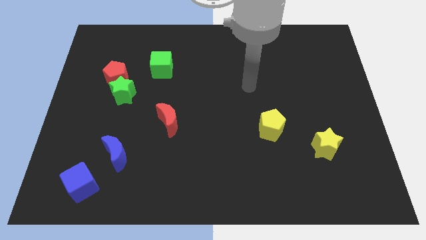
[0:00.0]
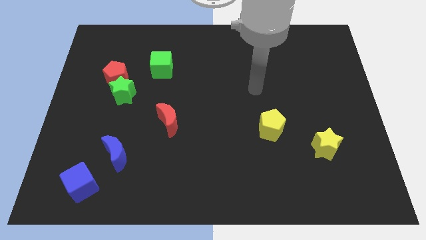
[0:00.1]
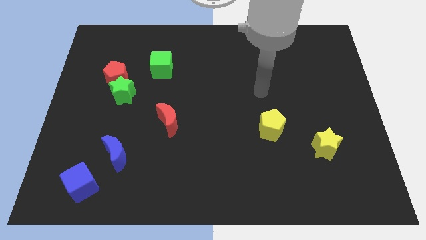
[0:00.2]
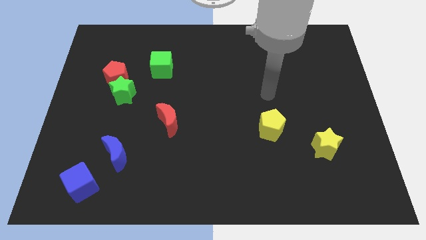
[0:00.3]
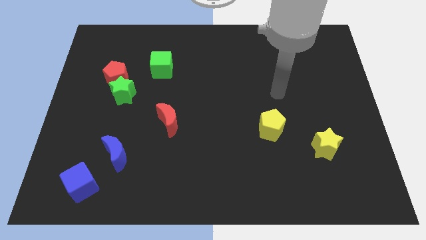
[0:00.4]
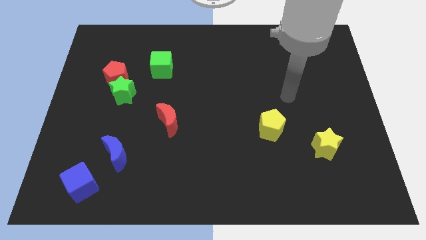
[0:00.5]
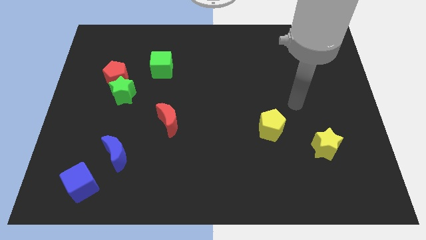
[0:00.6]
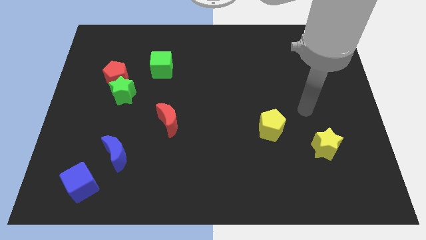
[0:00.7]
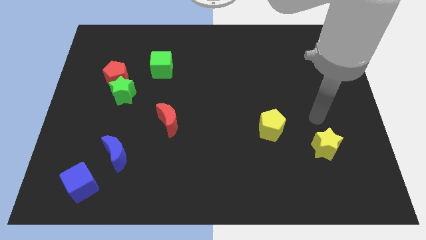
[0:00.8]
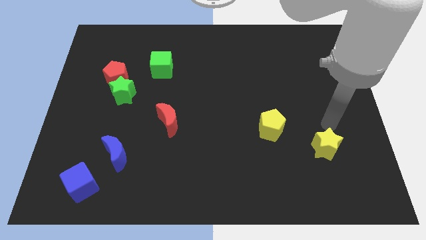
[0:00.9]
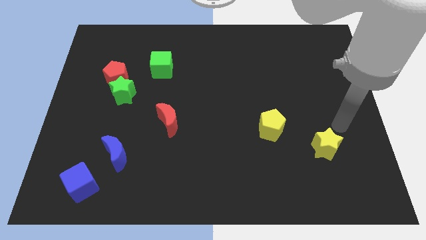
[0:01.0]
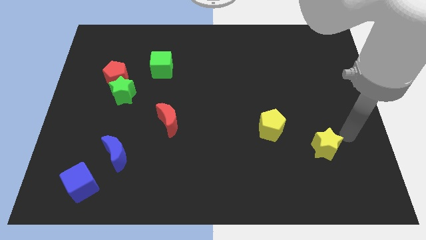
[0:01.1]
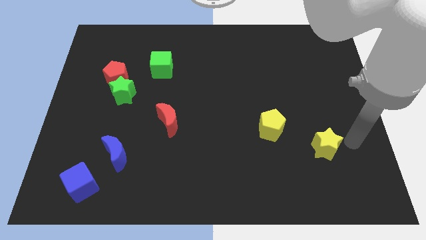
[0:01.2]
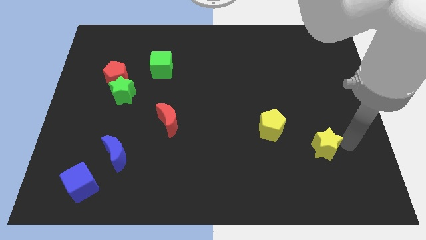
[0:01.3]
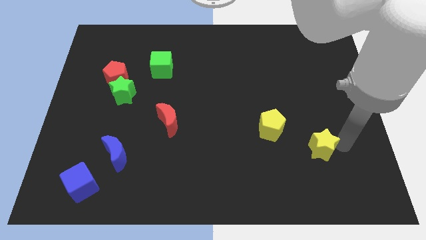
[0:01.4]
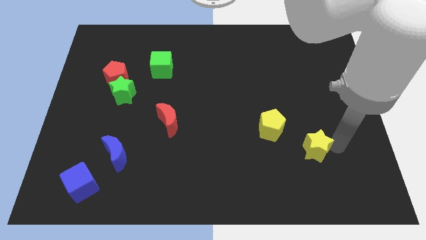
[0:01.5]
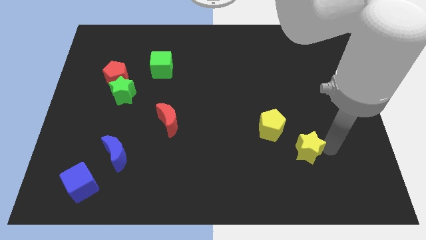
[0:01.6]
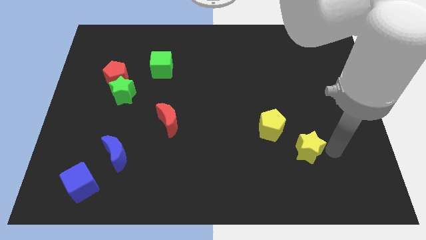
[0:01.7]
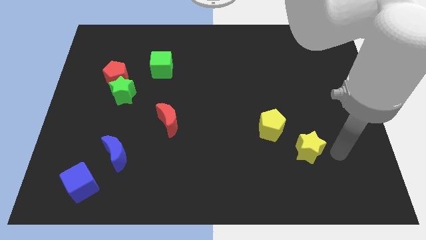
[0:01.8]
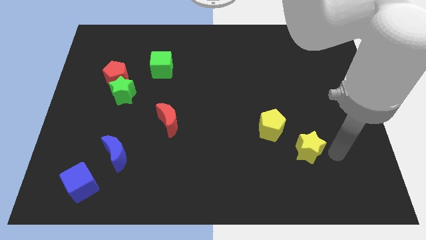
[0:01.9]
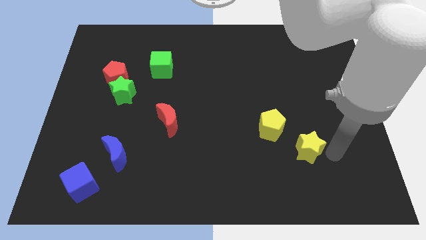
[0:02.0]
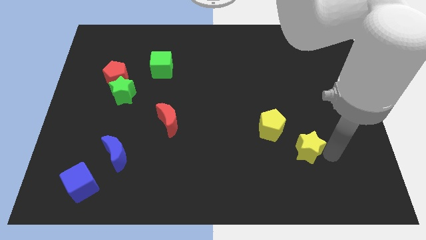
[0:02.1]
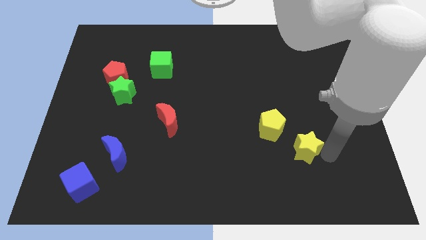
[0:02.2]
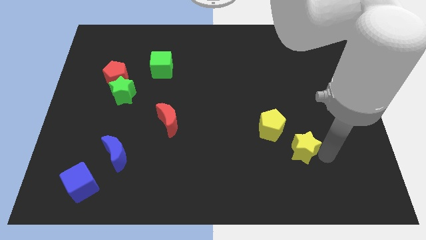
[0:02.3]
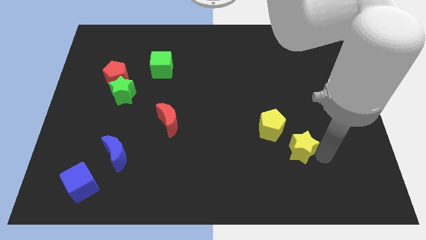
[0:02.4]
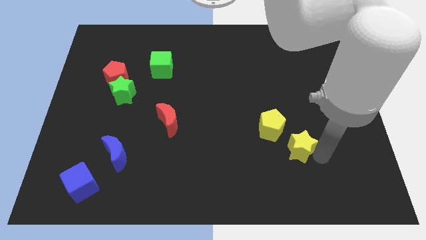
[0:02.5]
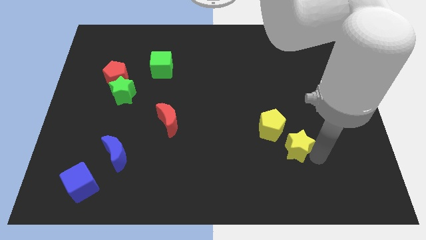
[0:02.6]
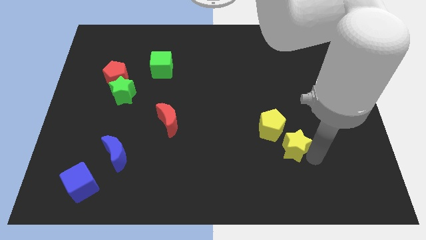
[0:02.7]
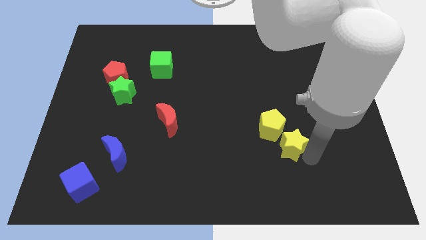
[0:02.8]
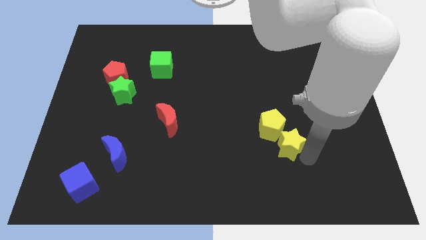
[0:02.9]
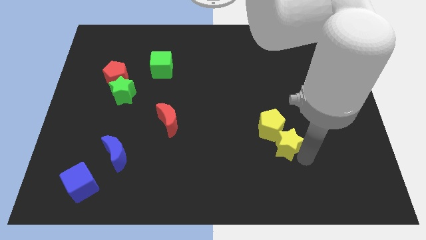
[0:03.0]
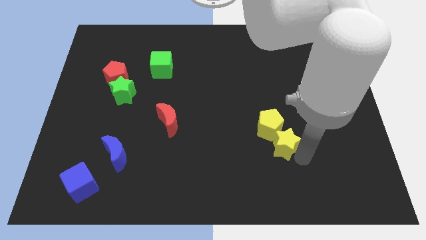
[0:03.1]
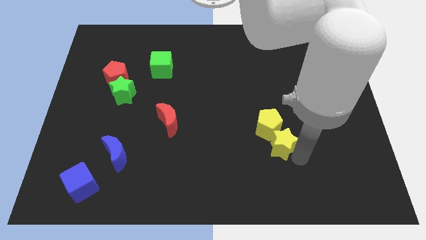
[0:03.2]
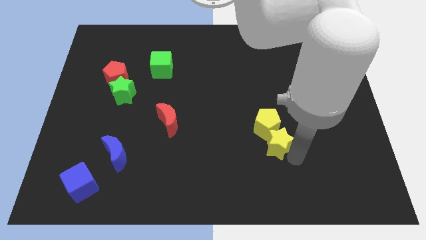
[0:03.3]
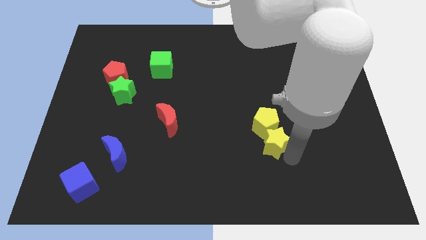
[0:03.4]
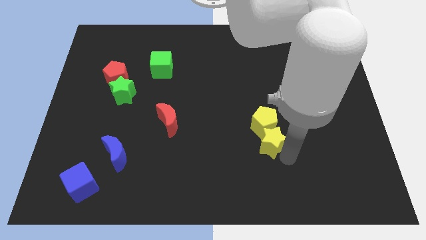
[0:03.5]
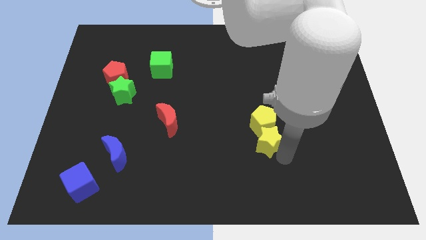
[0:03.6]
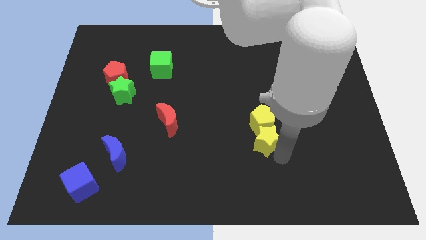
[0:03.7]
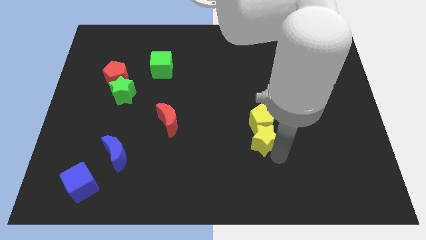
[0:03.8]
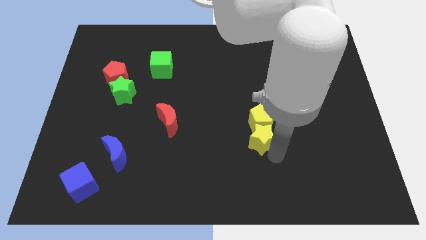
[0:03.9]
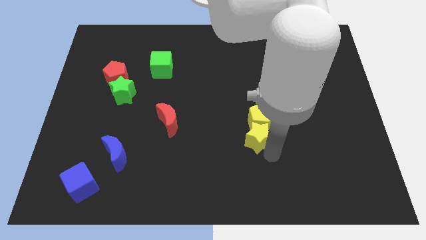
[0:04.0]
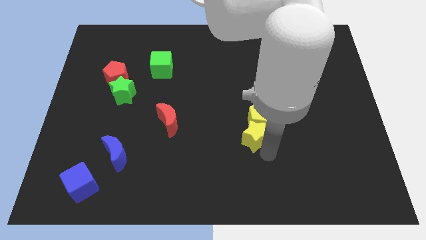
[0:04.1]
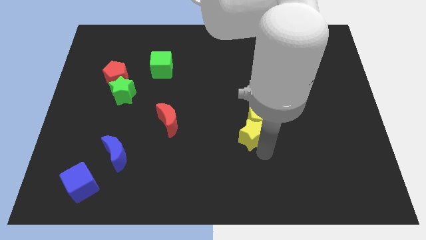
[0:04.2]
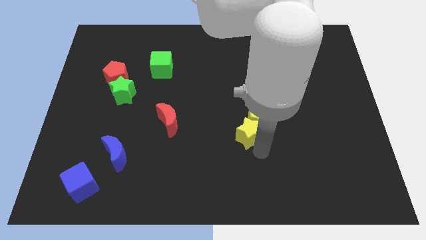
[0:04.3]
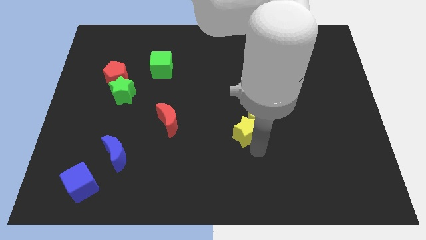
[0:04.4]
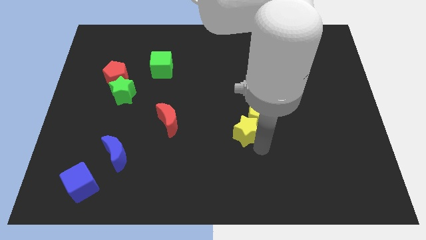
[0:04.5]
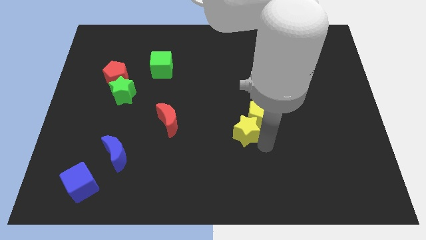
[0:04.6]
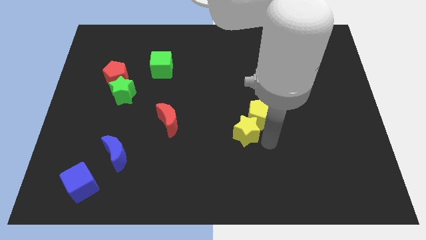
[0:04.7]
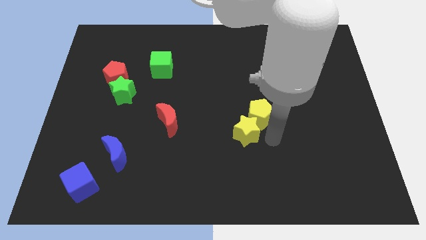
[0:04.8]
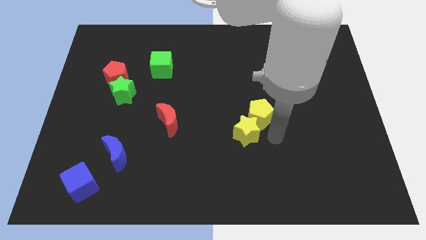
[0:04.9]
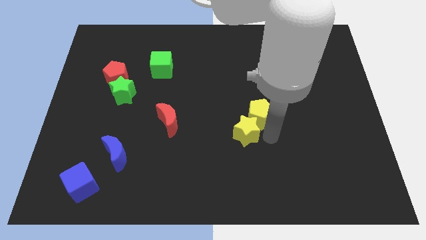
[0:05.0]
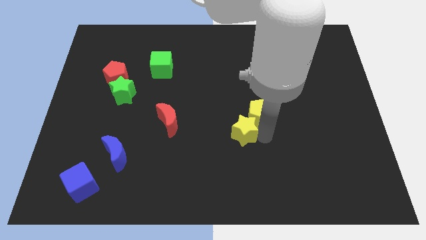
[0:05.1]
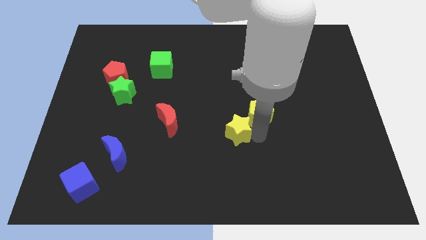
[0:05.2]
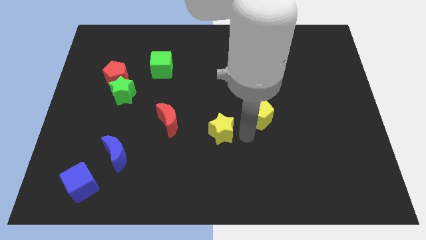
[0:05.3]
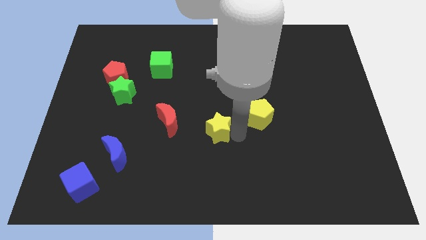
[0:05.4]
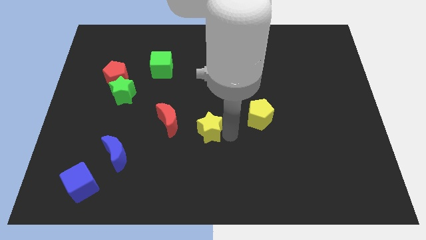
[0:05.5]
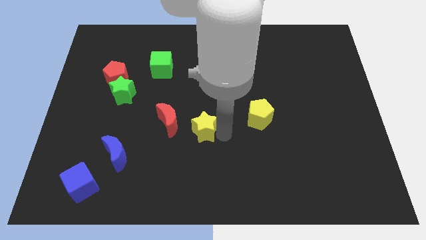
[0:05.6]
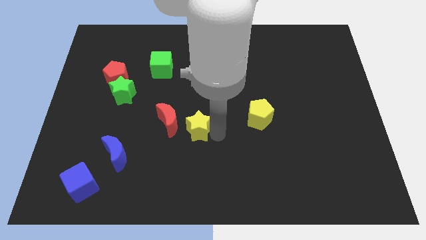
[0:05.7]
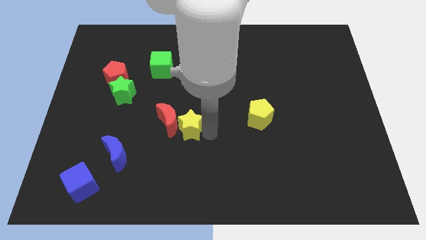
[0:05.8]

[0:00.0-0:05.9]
slide the yellow star next to the red moon

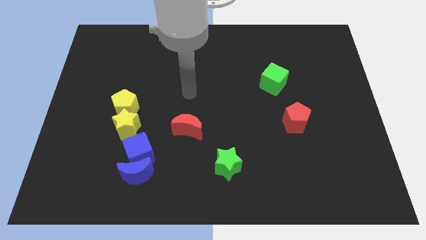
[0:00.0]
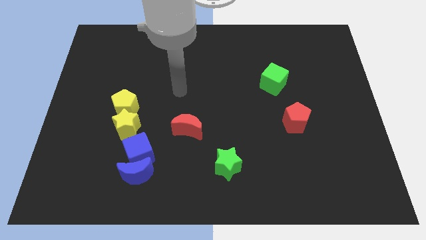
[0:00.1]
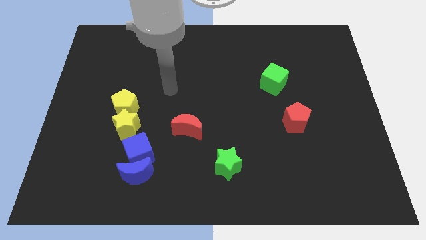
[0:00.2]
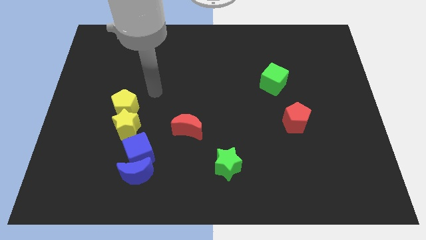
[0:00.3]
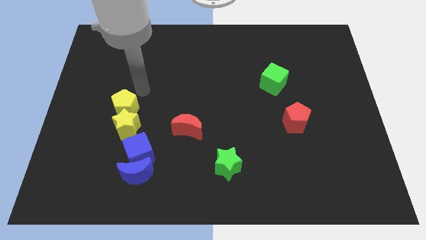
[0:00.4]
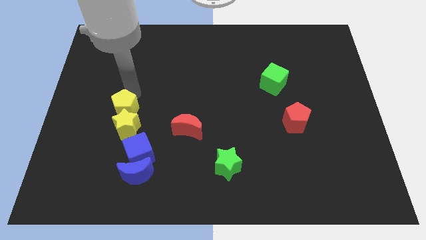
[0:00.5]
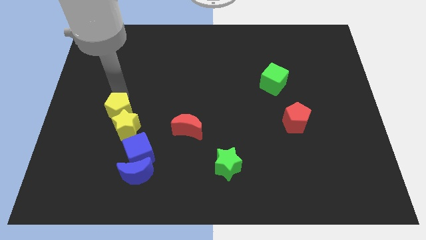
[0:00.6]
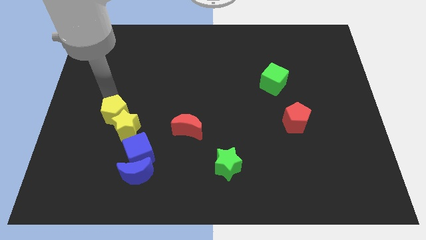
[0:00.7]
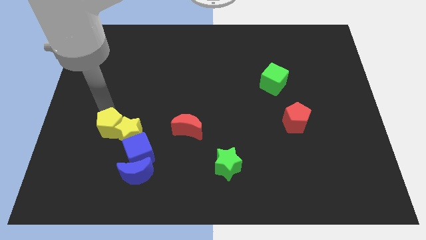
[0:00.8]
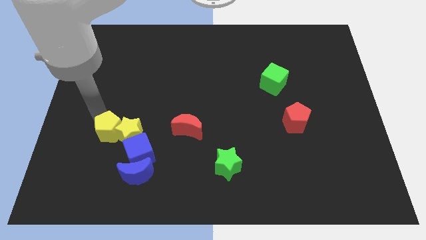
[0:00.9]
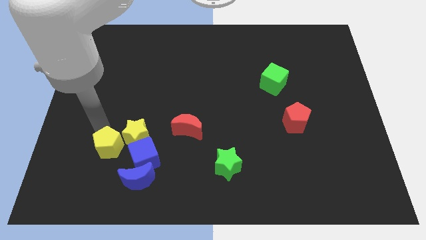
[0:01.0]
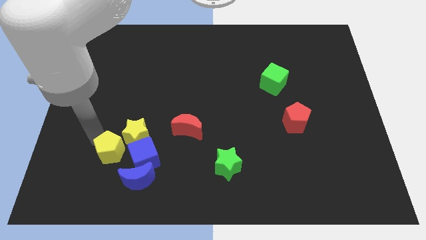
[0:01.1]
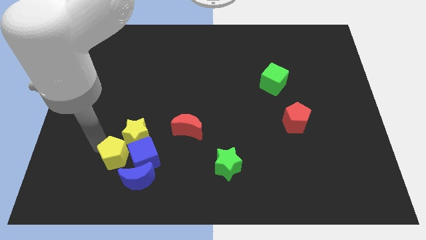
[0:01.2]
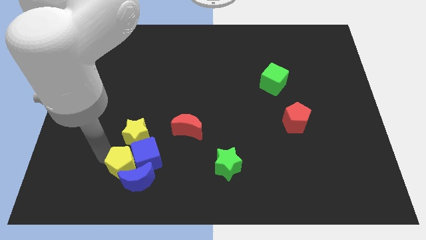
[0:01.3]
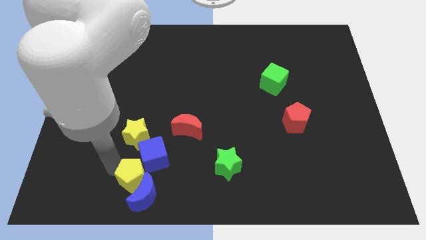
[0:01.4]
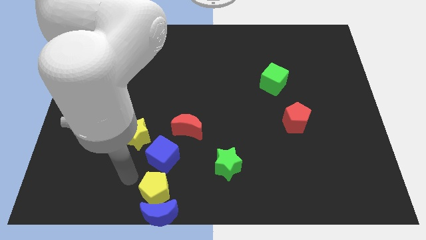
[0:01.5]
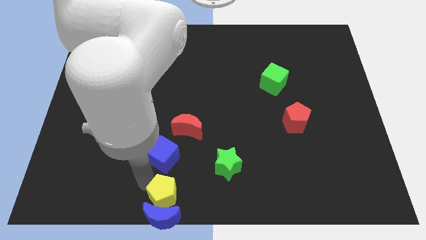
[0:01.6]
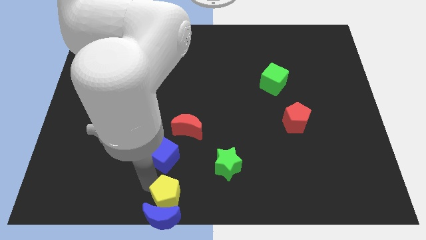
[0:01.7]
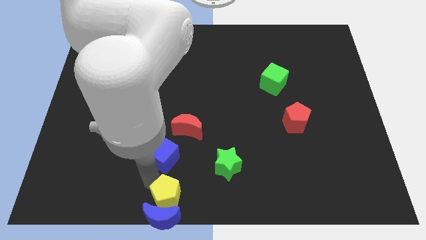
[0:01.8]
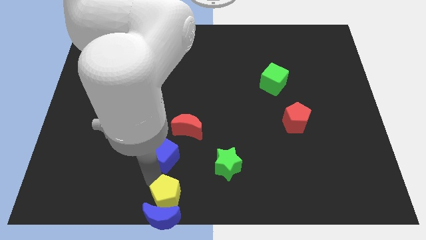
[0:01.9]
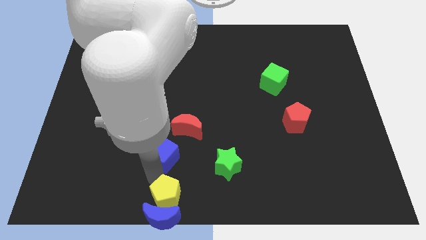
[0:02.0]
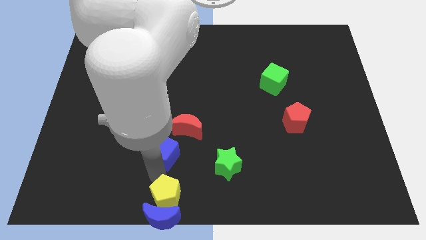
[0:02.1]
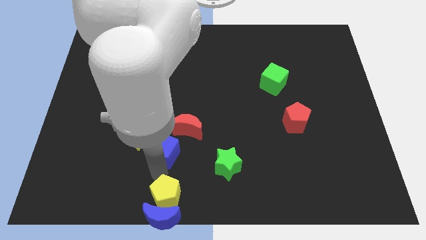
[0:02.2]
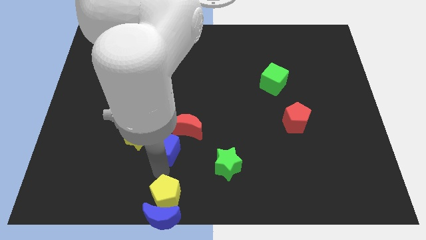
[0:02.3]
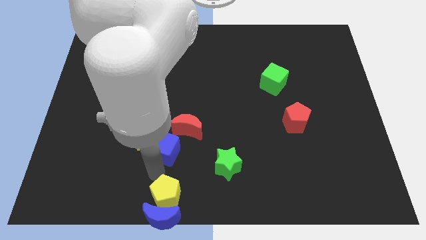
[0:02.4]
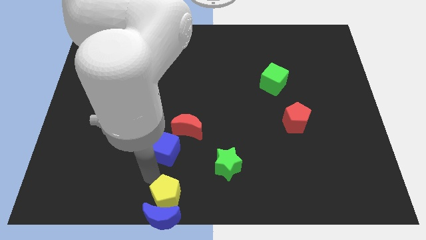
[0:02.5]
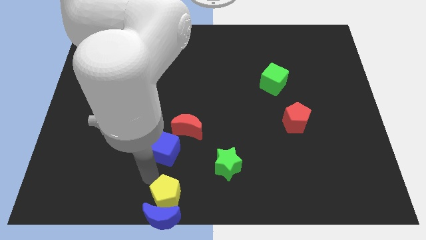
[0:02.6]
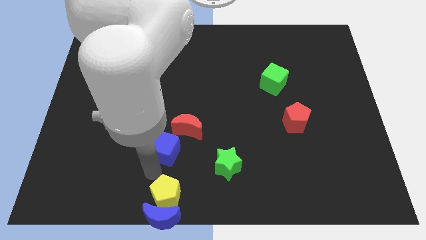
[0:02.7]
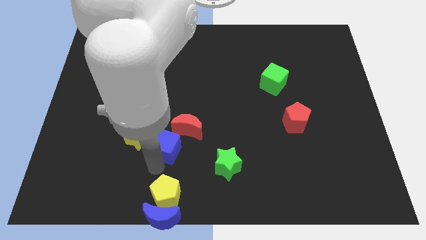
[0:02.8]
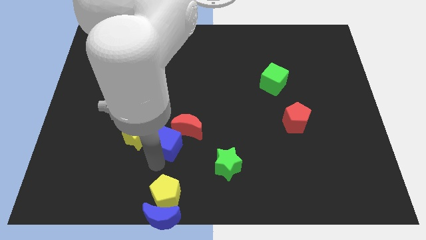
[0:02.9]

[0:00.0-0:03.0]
put the blue cube to the red moon
